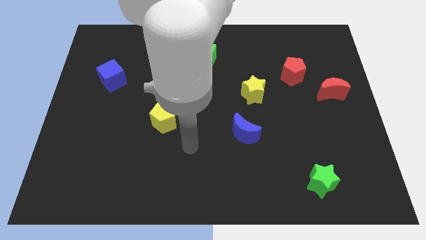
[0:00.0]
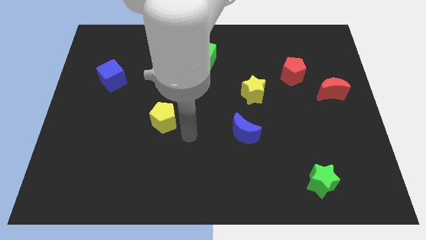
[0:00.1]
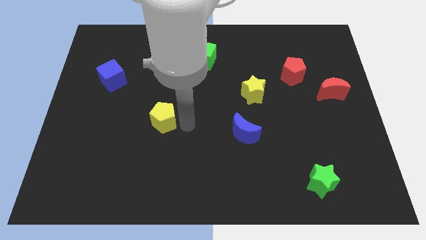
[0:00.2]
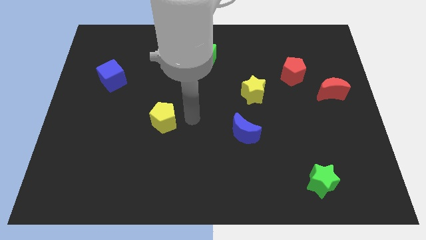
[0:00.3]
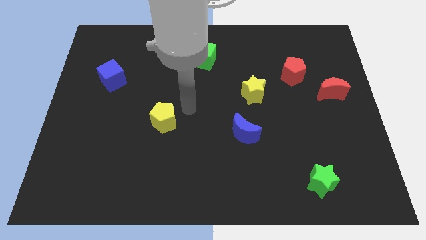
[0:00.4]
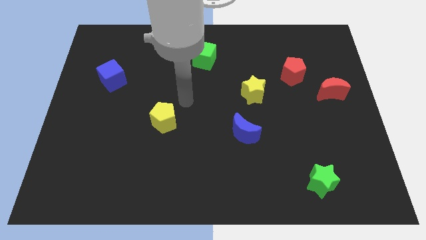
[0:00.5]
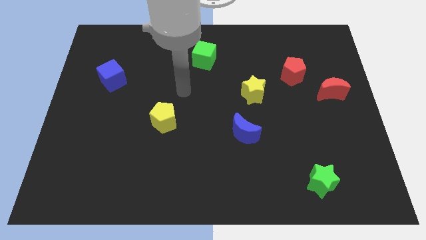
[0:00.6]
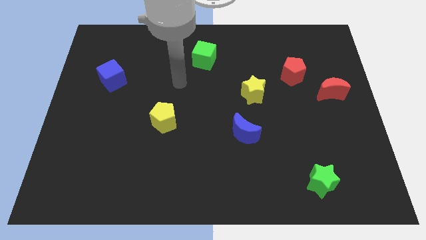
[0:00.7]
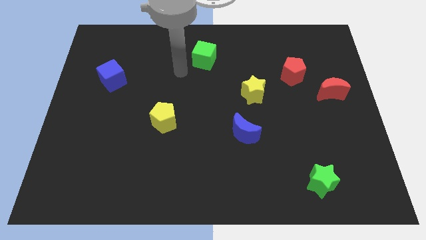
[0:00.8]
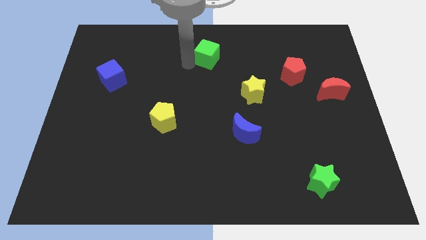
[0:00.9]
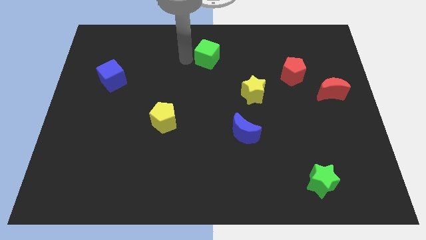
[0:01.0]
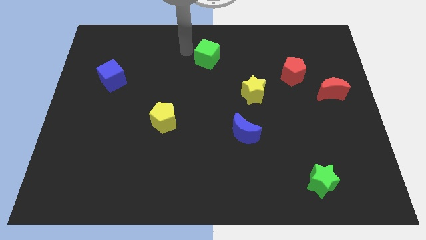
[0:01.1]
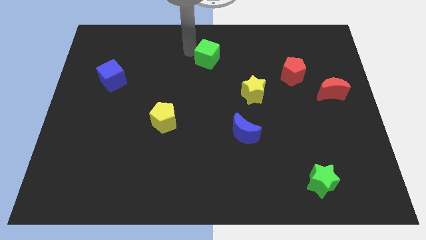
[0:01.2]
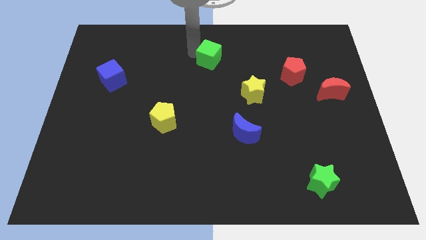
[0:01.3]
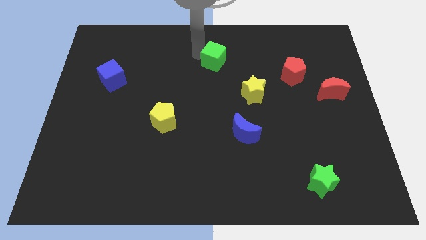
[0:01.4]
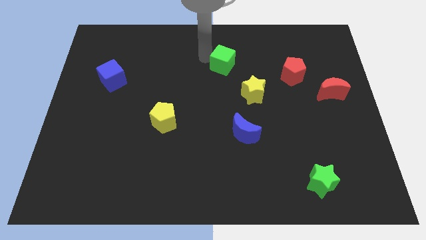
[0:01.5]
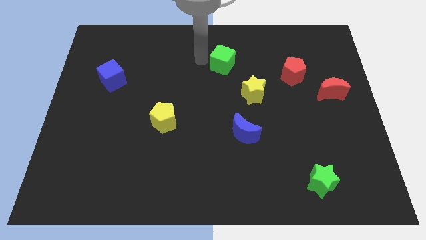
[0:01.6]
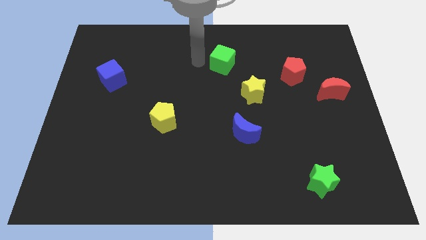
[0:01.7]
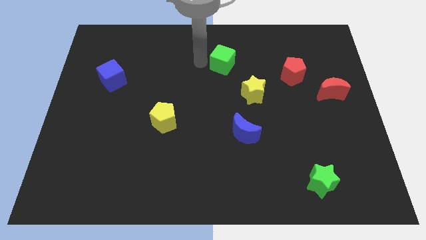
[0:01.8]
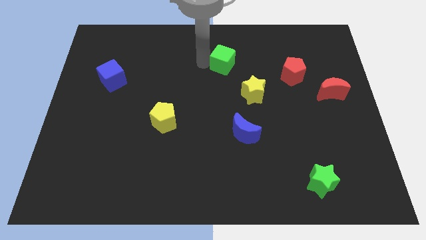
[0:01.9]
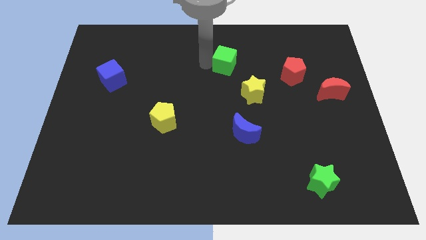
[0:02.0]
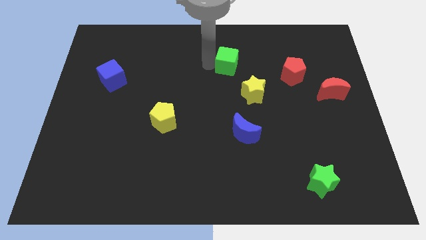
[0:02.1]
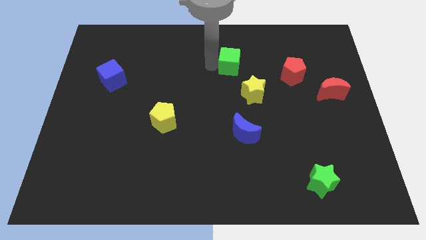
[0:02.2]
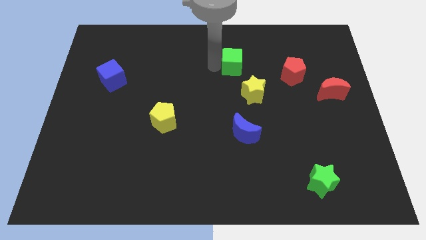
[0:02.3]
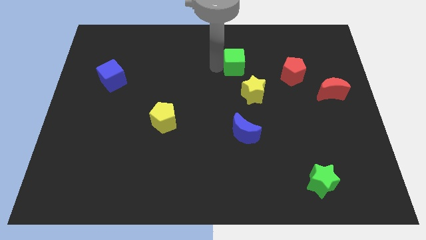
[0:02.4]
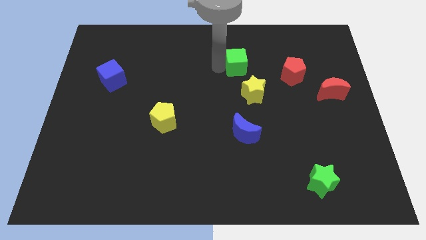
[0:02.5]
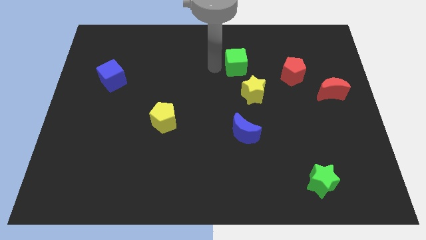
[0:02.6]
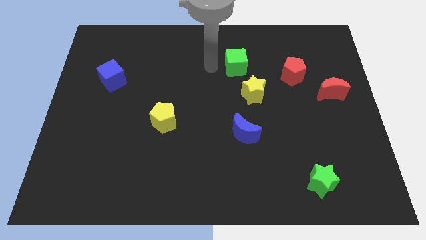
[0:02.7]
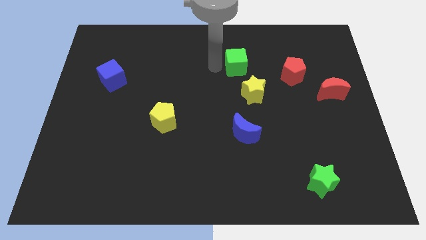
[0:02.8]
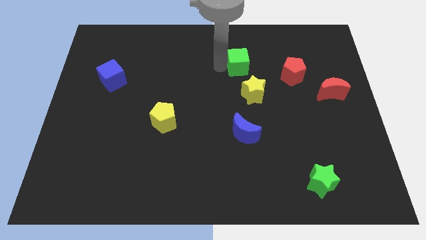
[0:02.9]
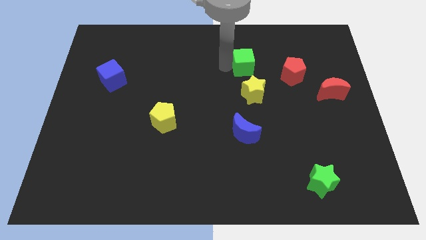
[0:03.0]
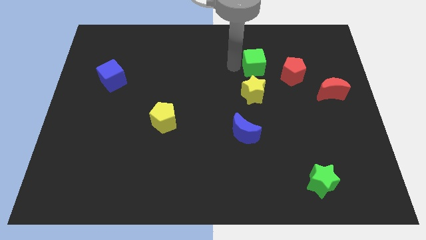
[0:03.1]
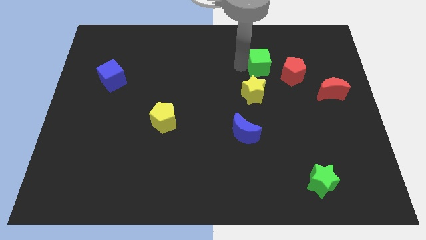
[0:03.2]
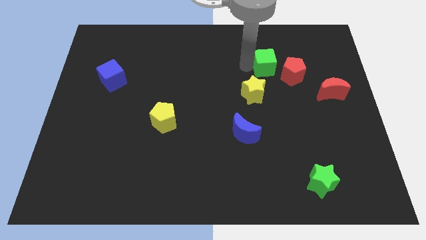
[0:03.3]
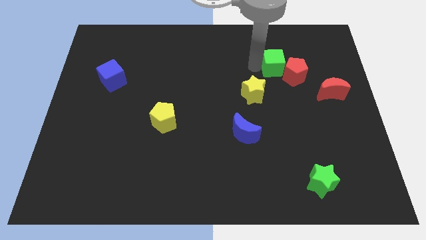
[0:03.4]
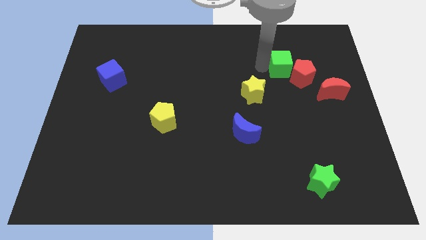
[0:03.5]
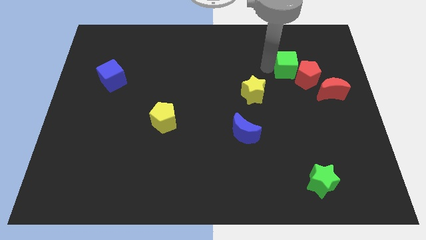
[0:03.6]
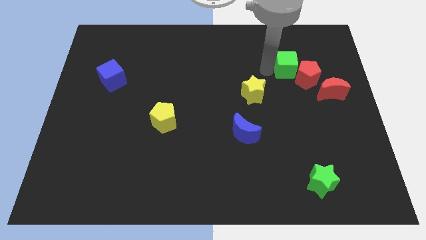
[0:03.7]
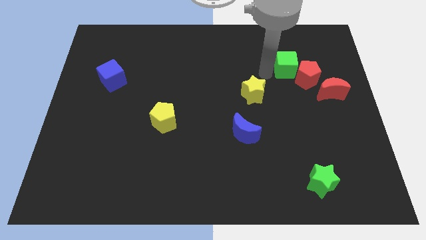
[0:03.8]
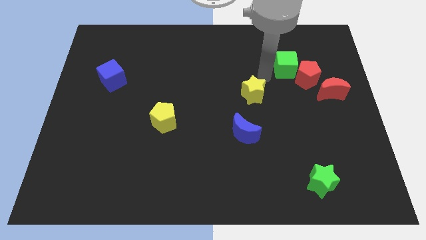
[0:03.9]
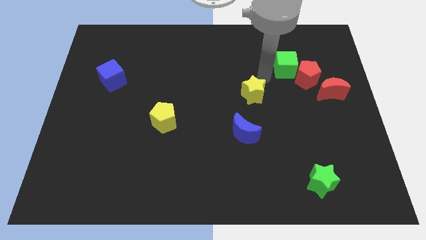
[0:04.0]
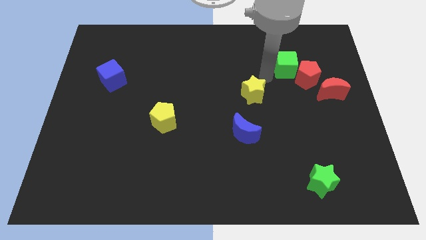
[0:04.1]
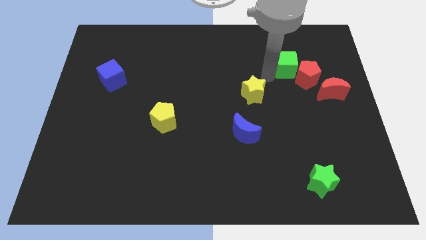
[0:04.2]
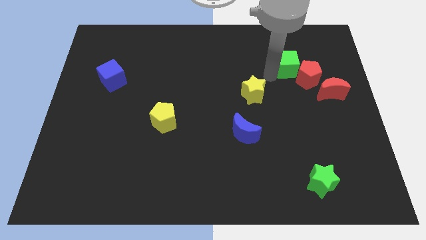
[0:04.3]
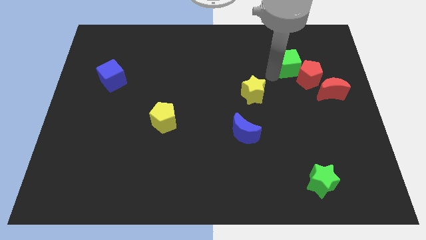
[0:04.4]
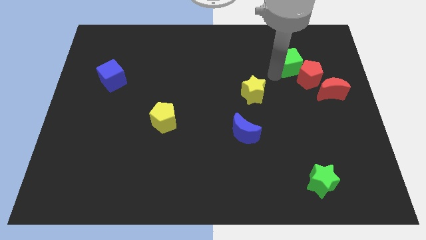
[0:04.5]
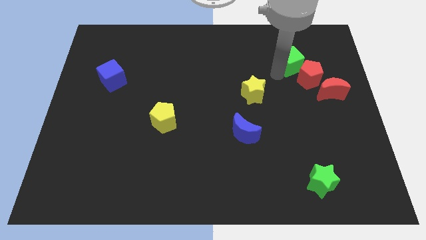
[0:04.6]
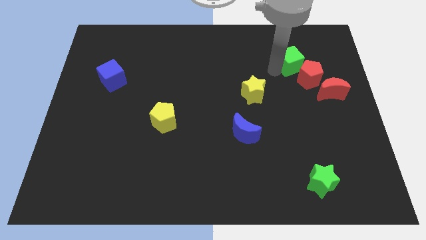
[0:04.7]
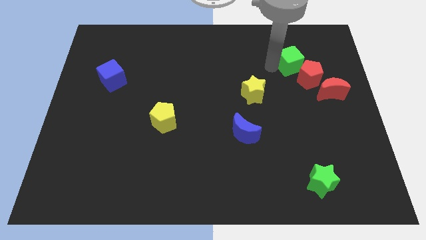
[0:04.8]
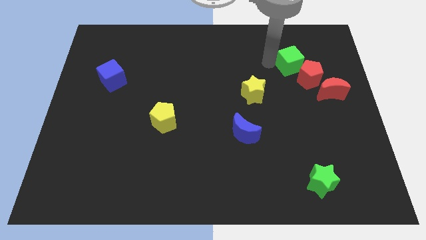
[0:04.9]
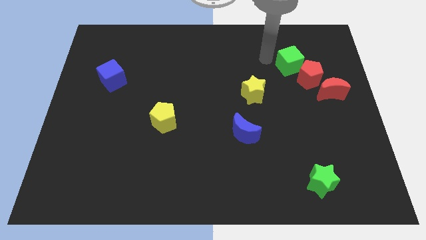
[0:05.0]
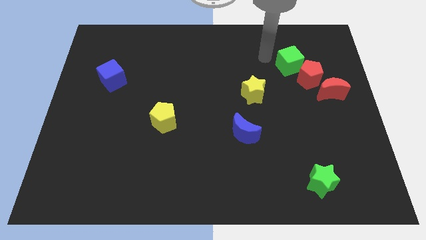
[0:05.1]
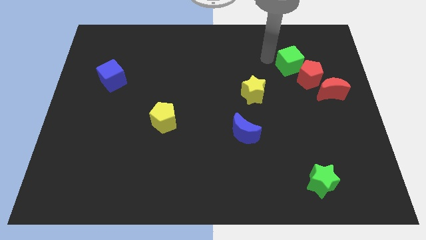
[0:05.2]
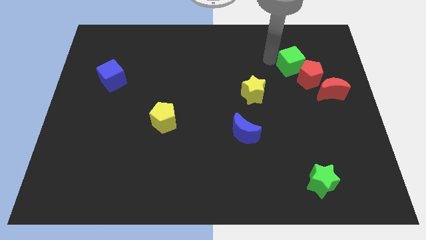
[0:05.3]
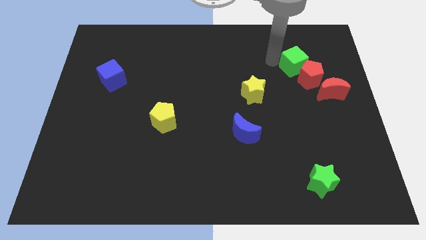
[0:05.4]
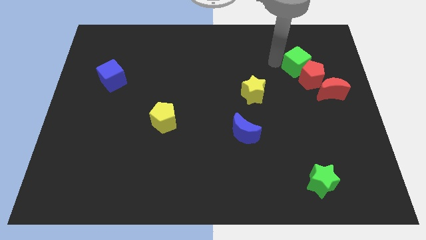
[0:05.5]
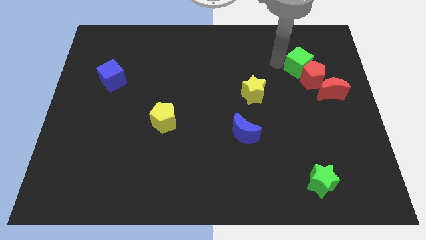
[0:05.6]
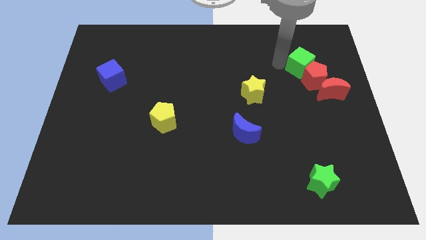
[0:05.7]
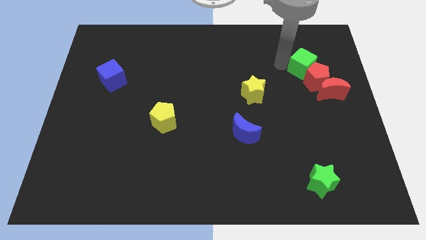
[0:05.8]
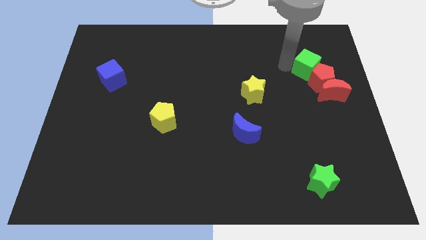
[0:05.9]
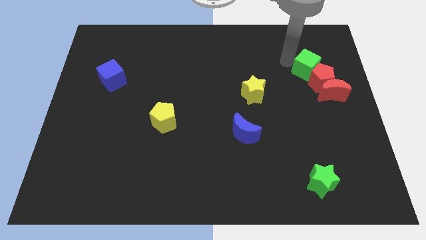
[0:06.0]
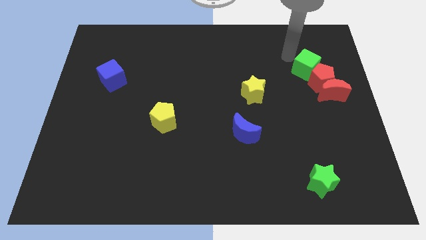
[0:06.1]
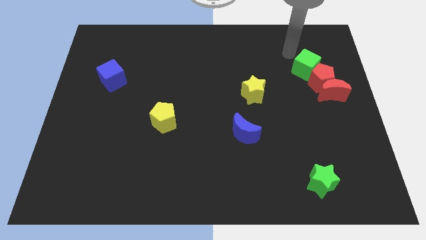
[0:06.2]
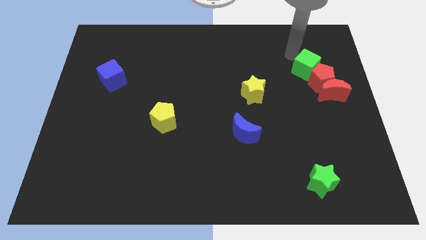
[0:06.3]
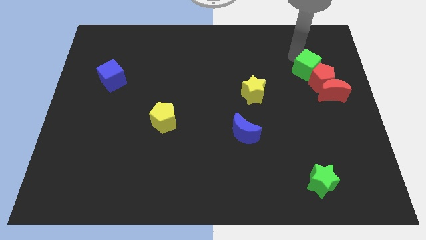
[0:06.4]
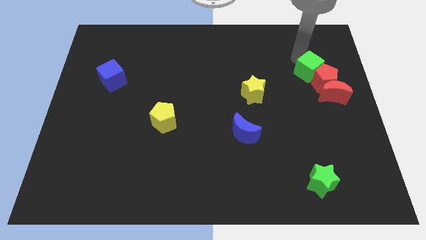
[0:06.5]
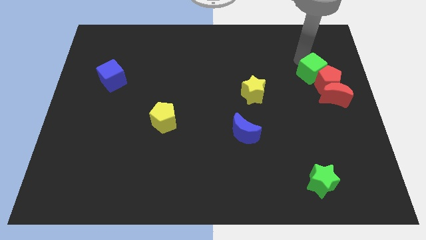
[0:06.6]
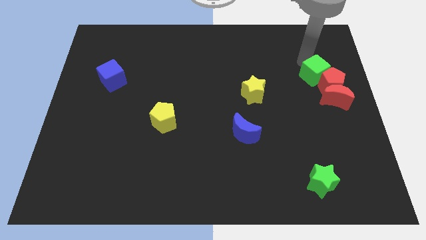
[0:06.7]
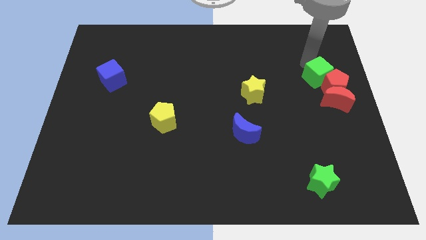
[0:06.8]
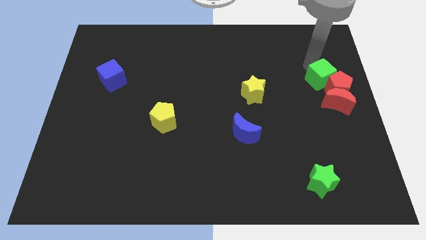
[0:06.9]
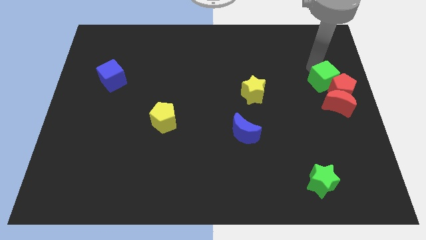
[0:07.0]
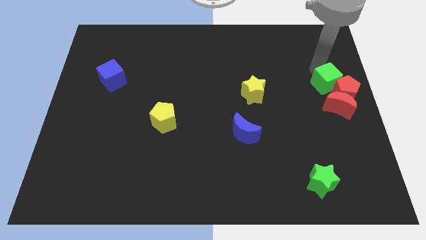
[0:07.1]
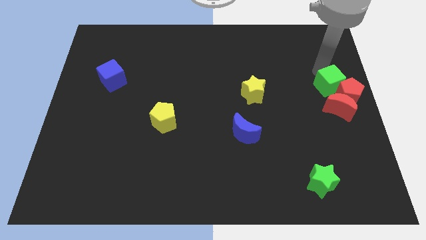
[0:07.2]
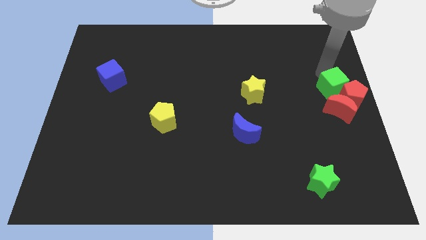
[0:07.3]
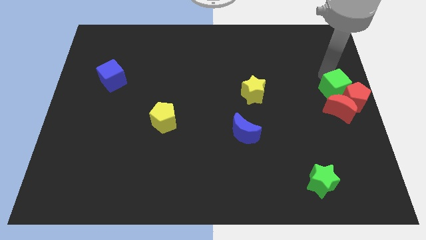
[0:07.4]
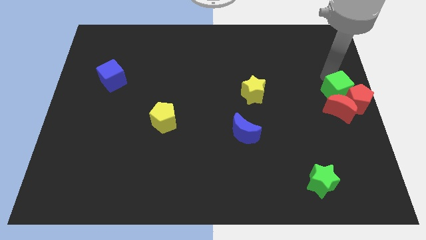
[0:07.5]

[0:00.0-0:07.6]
move the green cube next to the red moon
